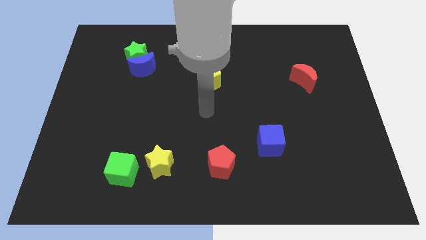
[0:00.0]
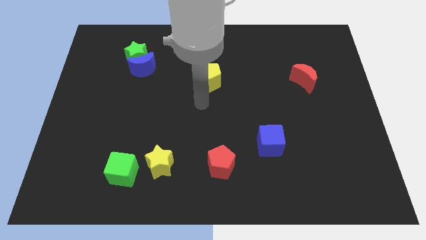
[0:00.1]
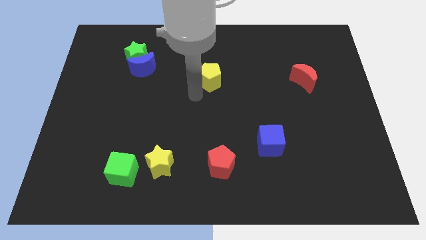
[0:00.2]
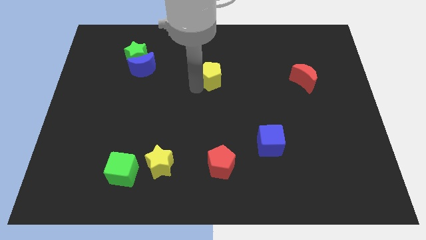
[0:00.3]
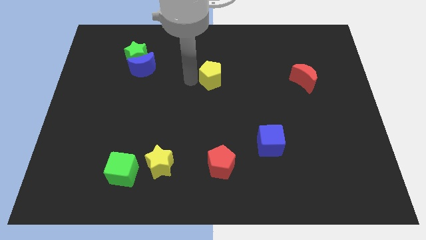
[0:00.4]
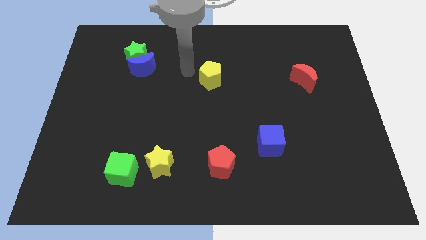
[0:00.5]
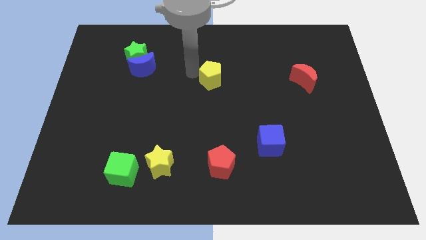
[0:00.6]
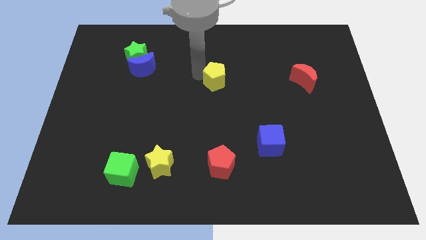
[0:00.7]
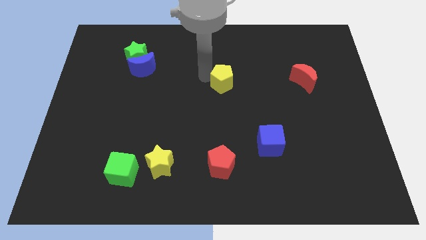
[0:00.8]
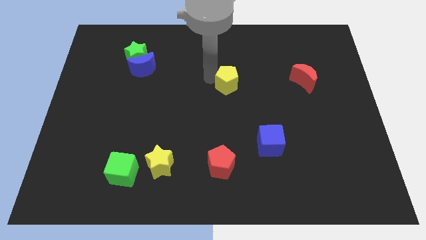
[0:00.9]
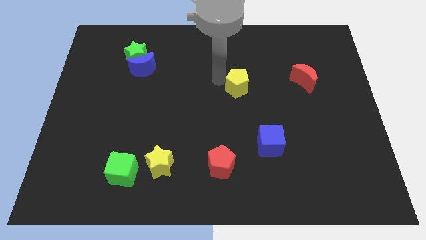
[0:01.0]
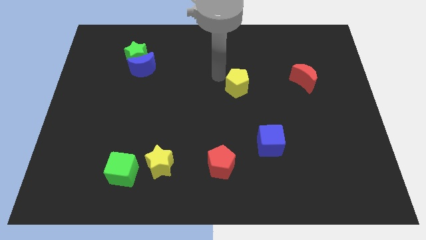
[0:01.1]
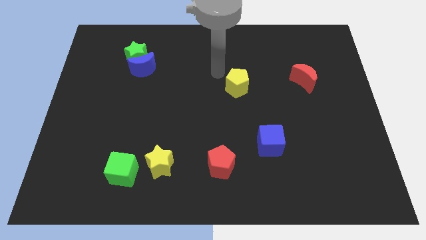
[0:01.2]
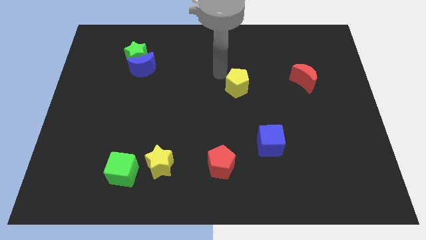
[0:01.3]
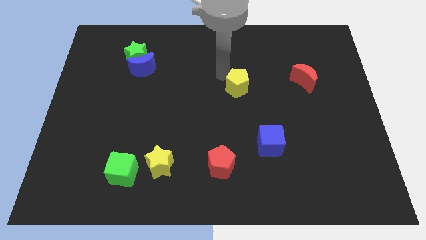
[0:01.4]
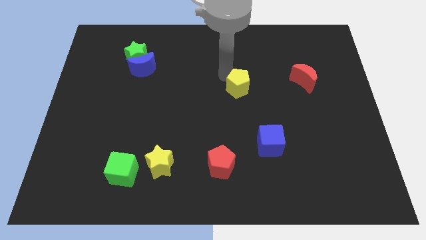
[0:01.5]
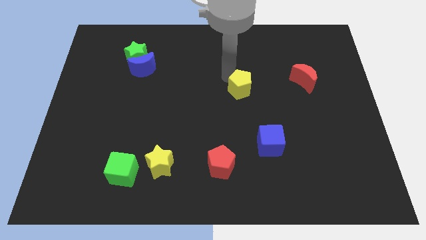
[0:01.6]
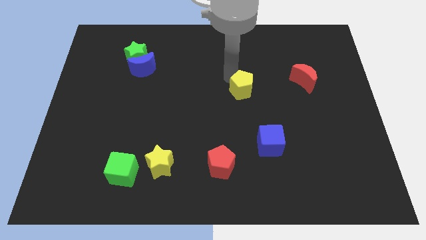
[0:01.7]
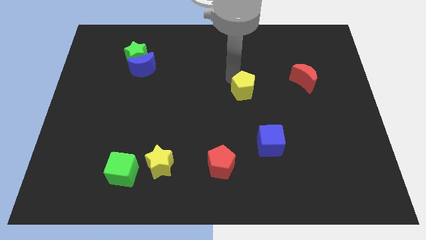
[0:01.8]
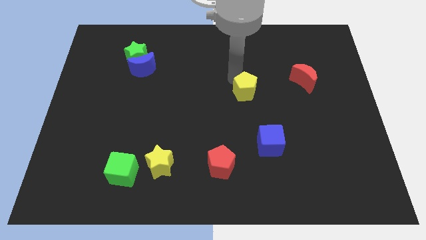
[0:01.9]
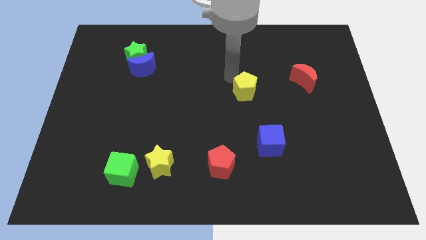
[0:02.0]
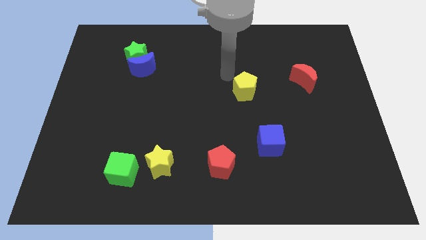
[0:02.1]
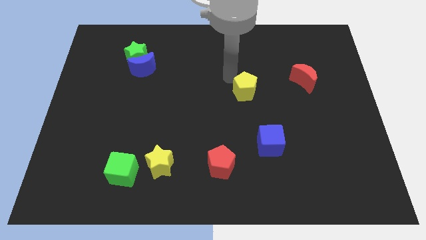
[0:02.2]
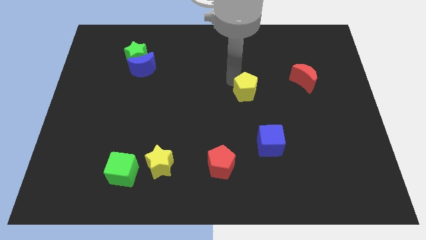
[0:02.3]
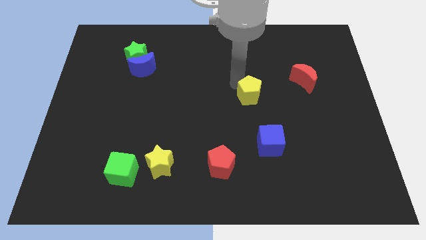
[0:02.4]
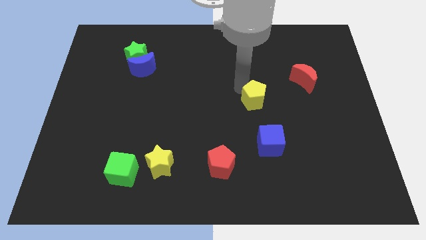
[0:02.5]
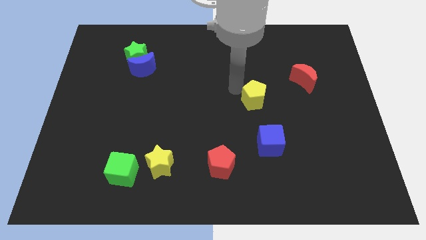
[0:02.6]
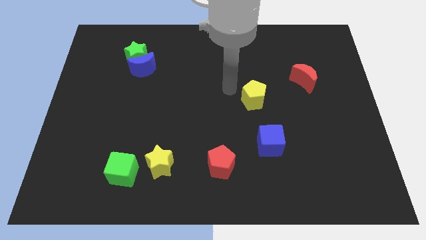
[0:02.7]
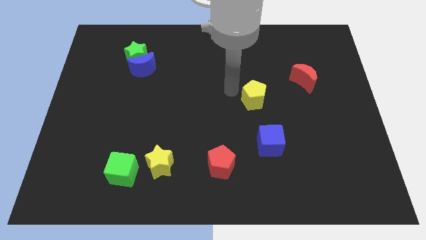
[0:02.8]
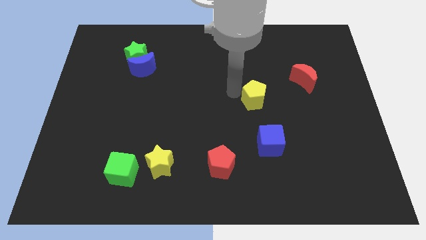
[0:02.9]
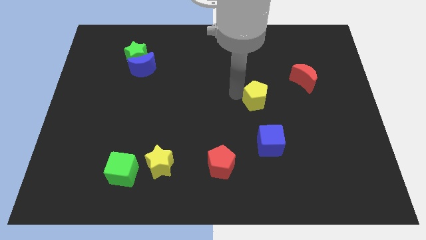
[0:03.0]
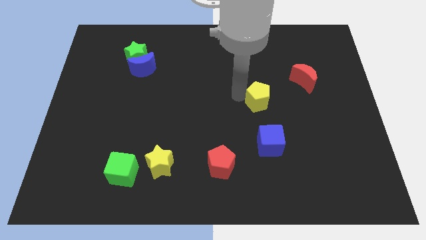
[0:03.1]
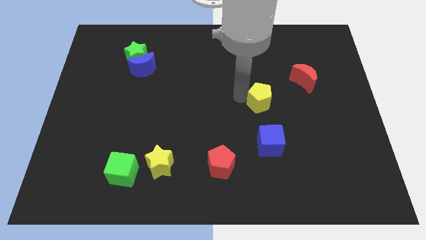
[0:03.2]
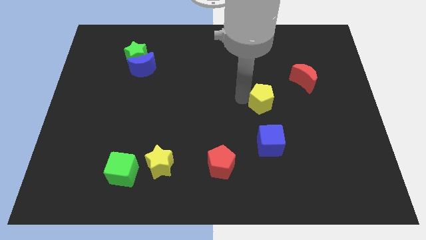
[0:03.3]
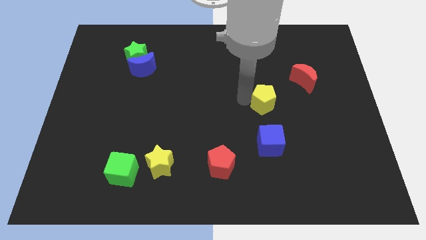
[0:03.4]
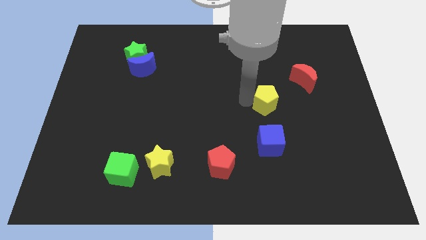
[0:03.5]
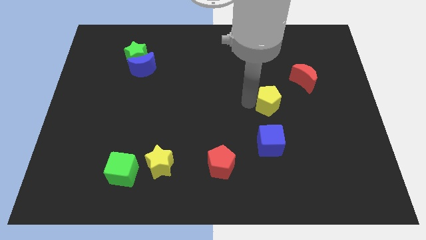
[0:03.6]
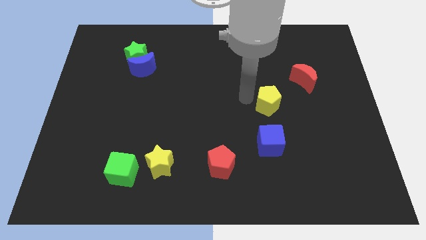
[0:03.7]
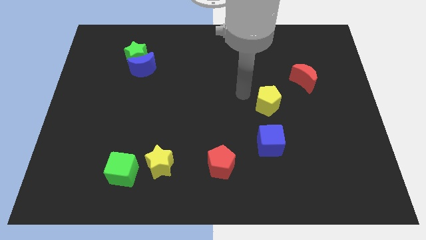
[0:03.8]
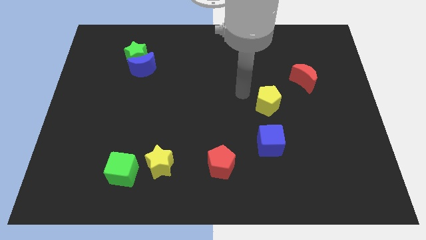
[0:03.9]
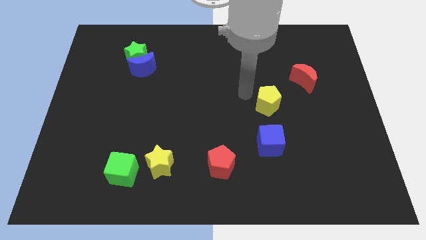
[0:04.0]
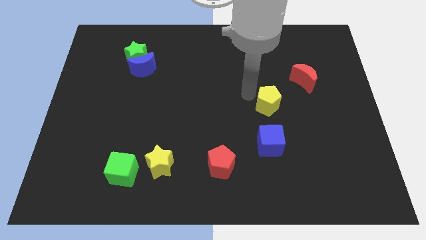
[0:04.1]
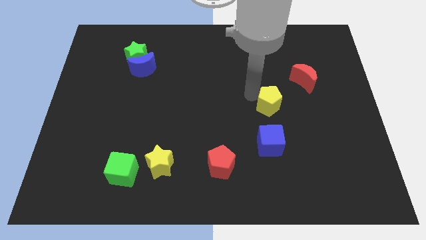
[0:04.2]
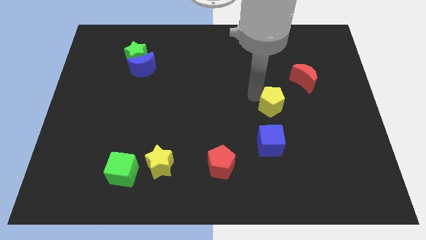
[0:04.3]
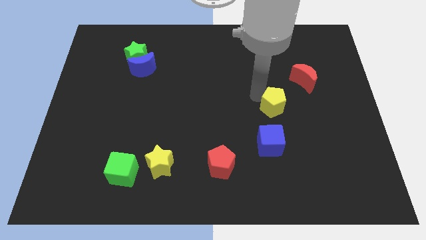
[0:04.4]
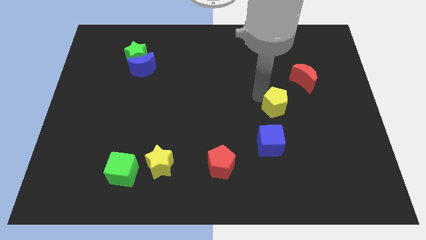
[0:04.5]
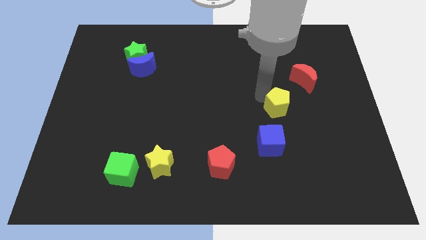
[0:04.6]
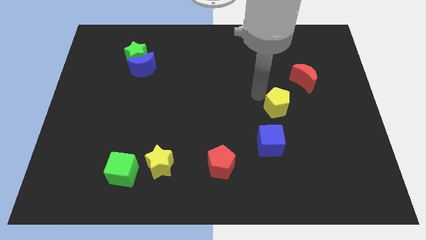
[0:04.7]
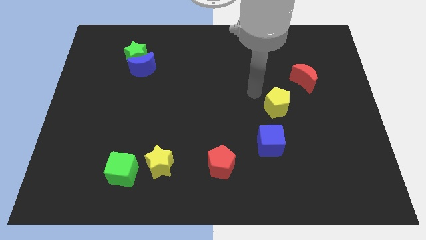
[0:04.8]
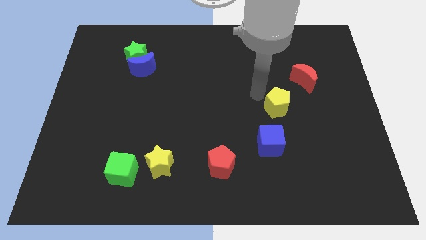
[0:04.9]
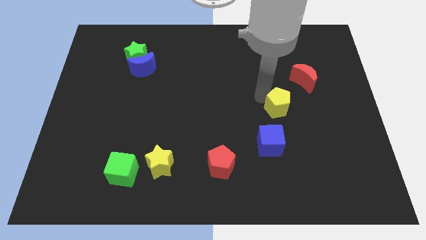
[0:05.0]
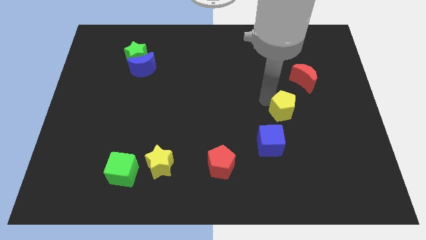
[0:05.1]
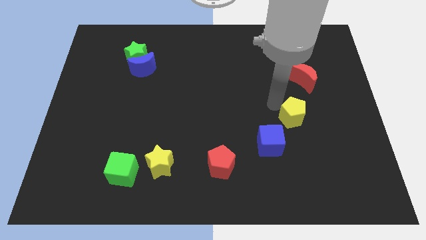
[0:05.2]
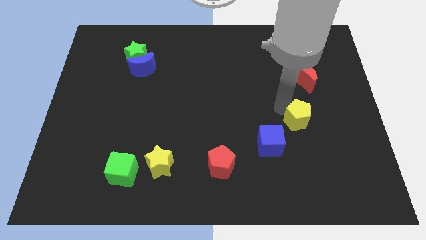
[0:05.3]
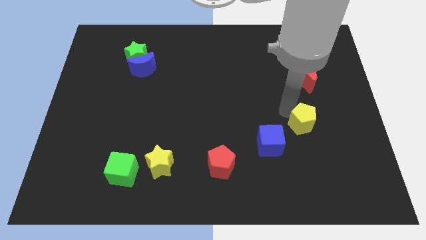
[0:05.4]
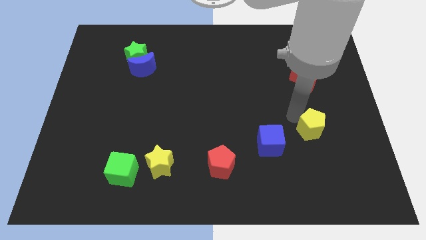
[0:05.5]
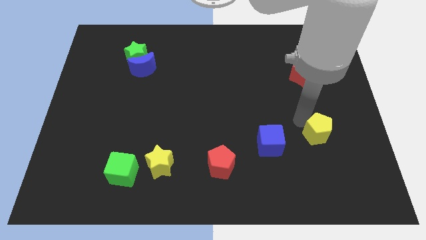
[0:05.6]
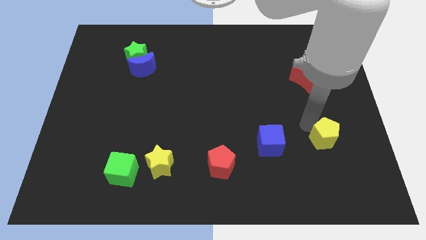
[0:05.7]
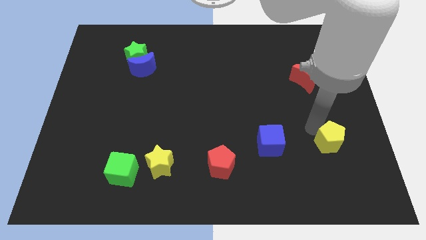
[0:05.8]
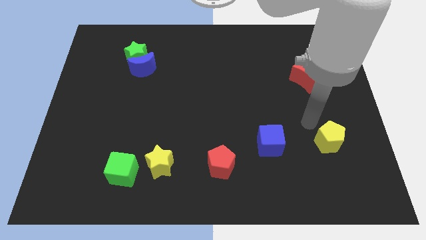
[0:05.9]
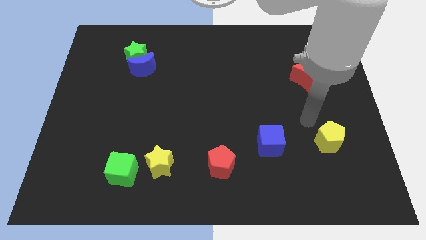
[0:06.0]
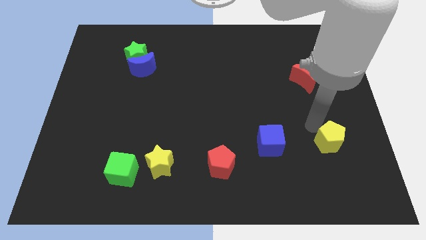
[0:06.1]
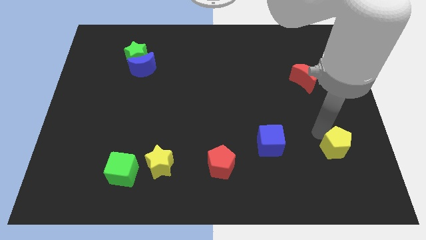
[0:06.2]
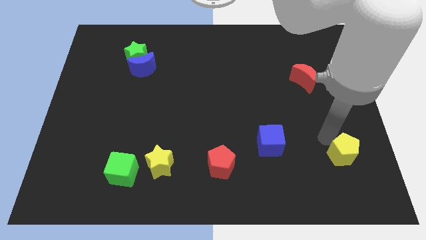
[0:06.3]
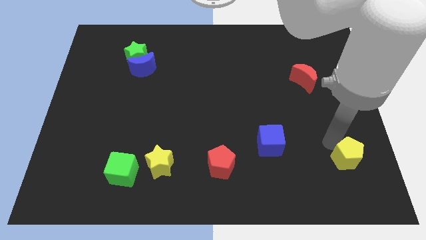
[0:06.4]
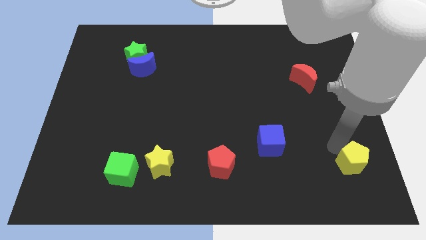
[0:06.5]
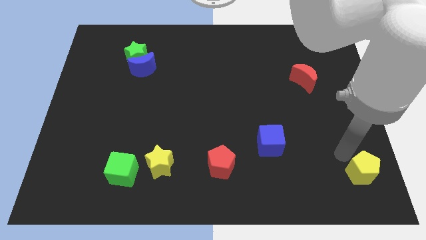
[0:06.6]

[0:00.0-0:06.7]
slide the yellow pentagon to the bottom right corner

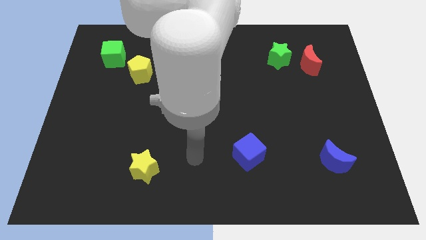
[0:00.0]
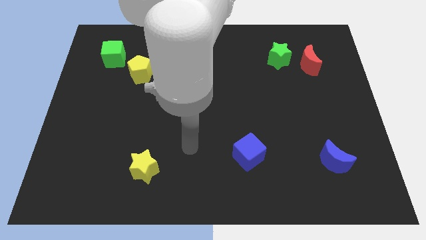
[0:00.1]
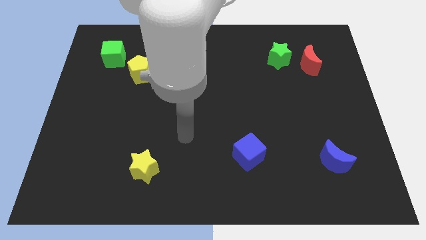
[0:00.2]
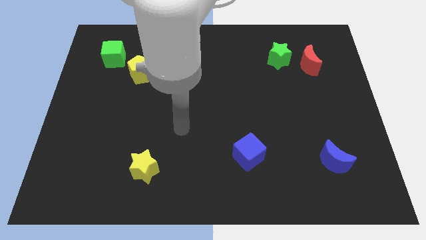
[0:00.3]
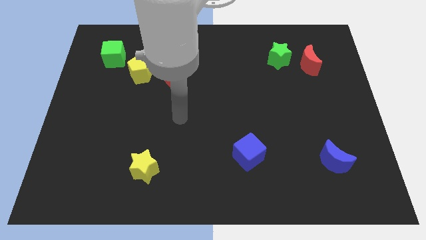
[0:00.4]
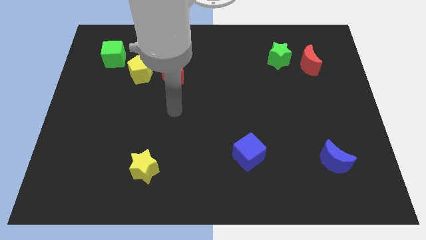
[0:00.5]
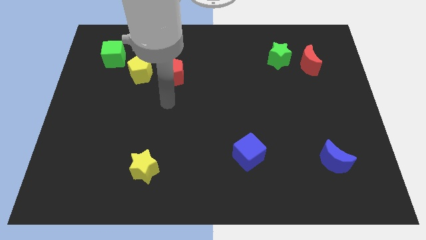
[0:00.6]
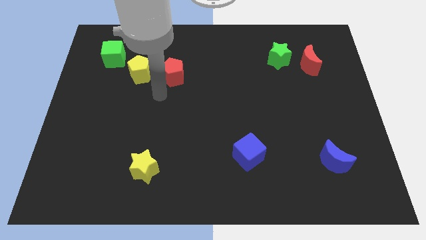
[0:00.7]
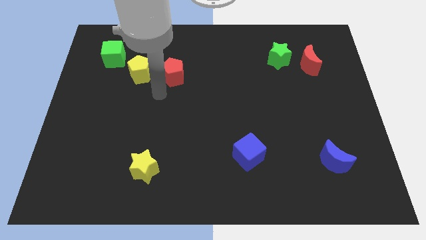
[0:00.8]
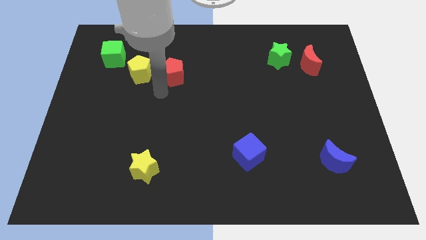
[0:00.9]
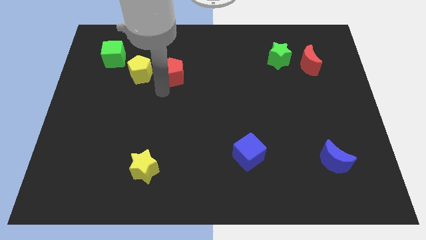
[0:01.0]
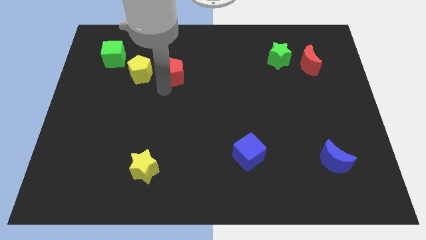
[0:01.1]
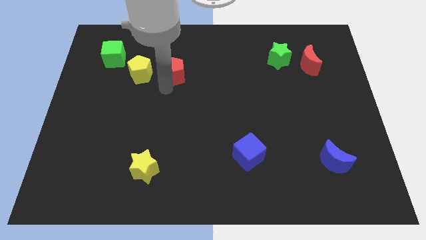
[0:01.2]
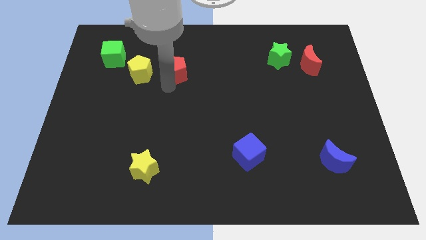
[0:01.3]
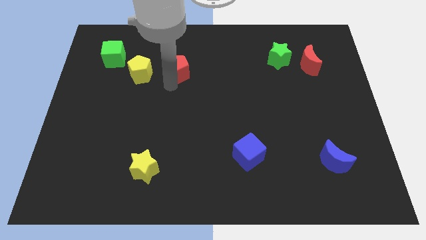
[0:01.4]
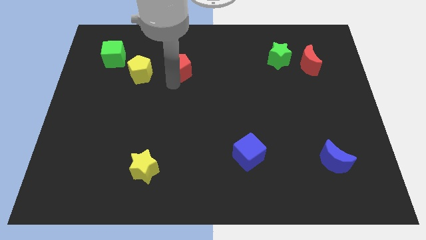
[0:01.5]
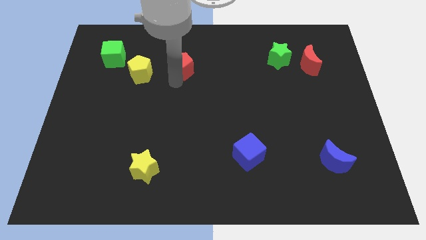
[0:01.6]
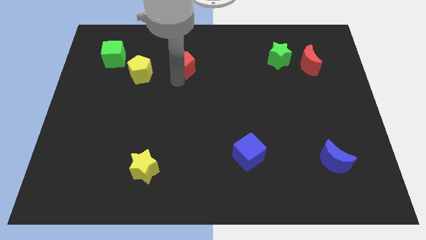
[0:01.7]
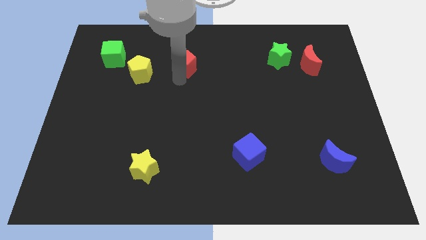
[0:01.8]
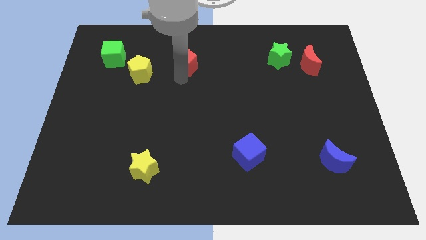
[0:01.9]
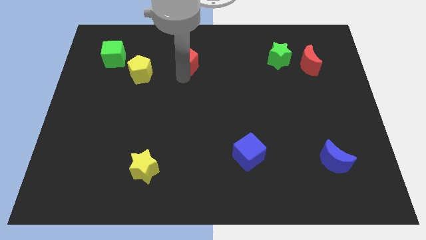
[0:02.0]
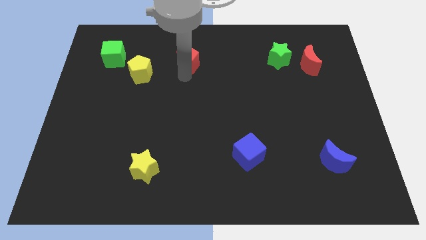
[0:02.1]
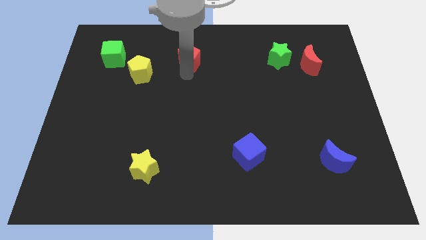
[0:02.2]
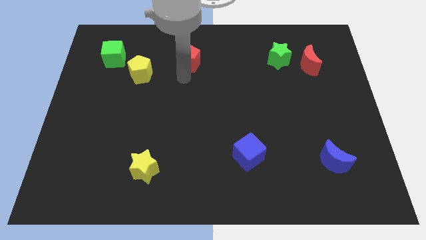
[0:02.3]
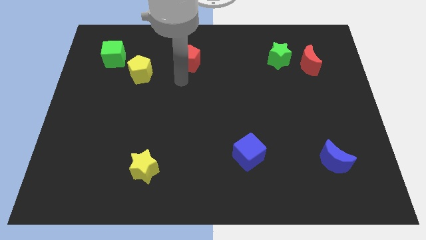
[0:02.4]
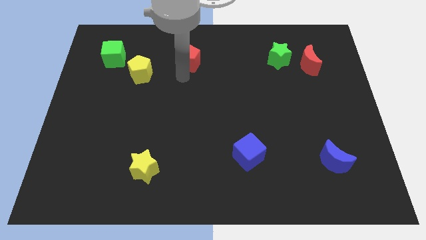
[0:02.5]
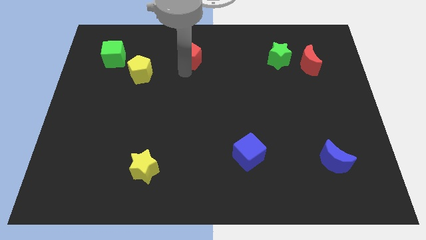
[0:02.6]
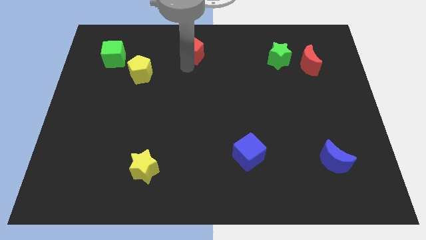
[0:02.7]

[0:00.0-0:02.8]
slide the red pentagon to the towards your base
